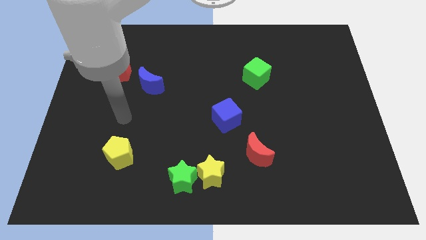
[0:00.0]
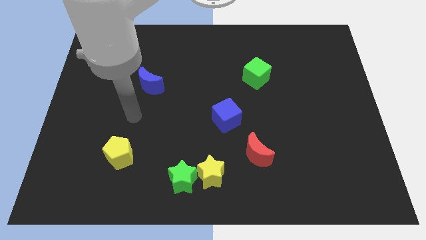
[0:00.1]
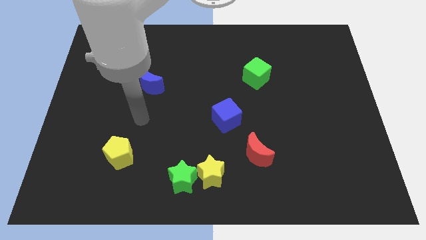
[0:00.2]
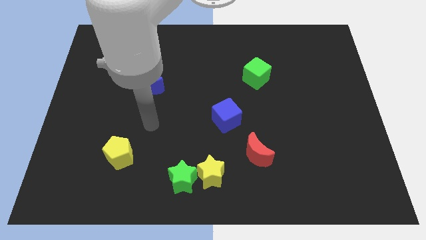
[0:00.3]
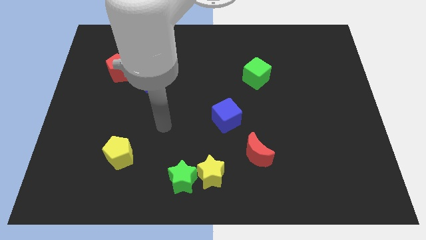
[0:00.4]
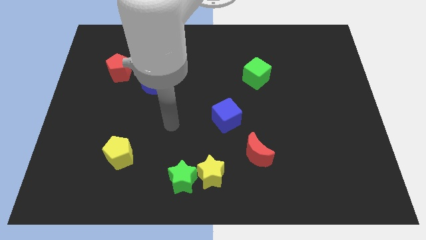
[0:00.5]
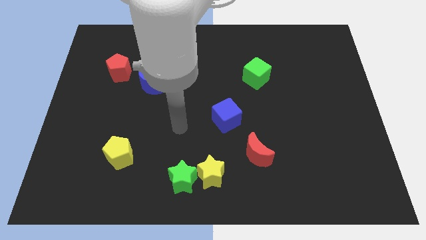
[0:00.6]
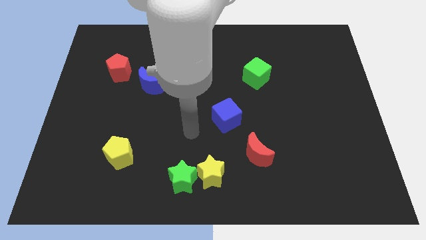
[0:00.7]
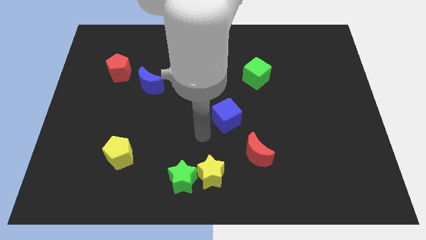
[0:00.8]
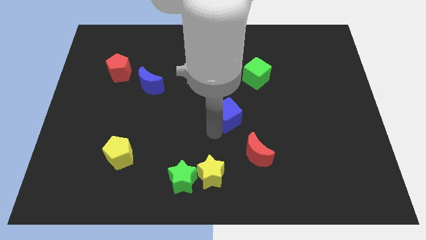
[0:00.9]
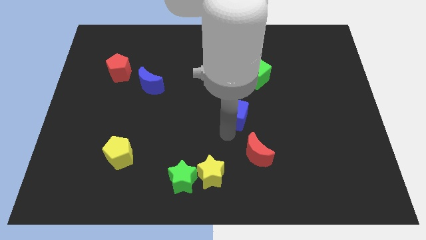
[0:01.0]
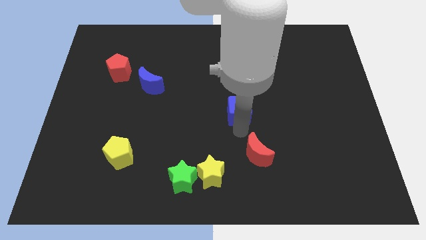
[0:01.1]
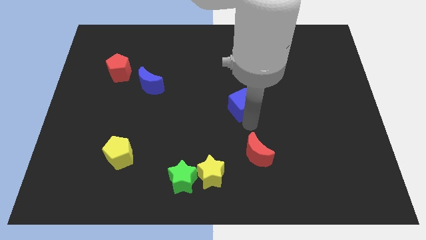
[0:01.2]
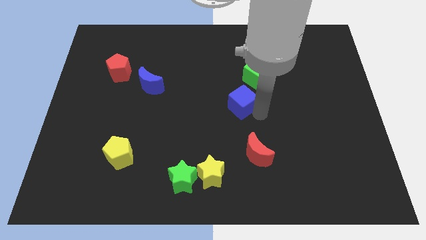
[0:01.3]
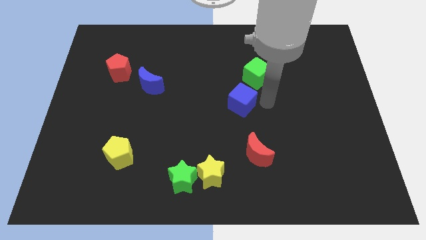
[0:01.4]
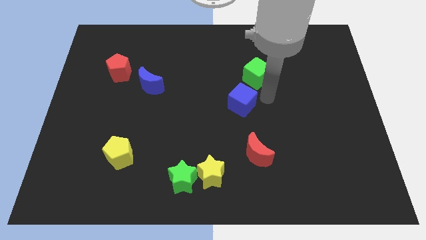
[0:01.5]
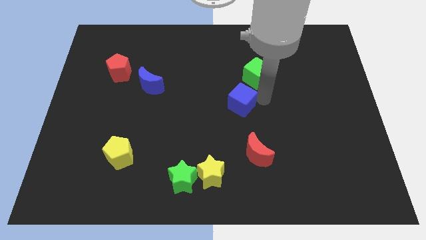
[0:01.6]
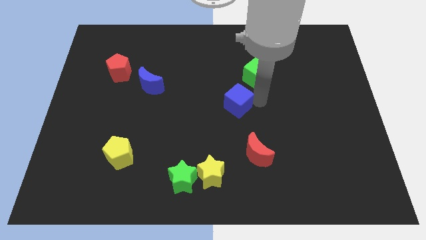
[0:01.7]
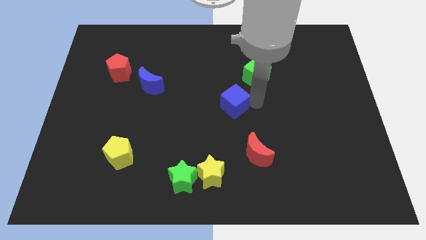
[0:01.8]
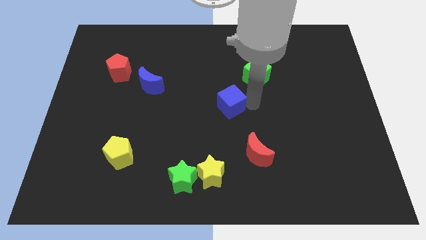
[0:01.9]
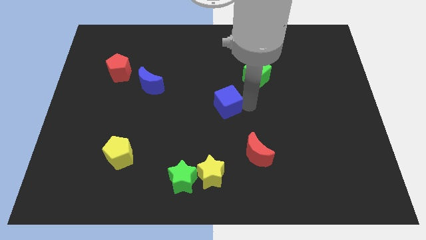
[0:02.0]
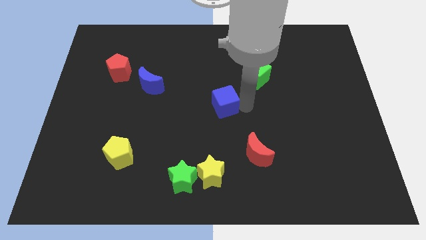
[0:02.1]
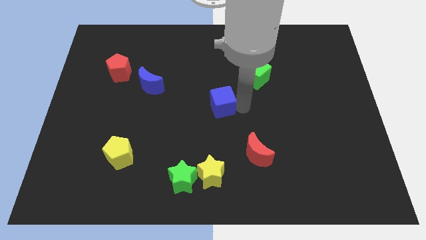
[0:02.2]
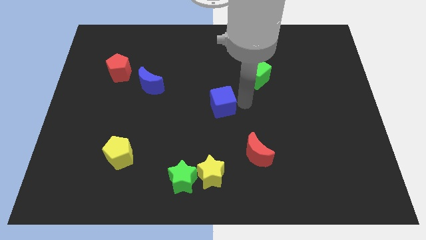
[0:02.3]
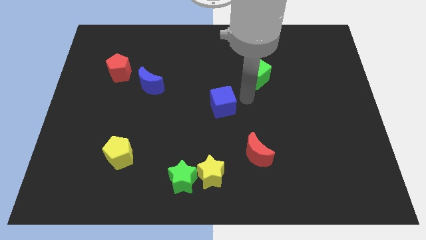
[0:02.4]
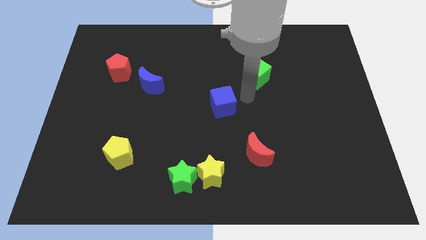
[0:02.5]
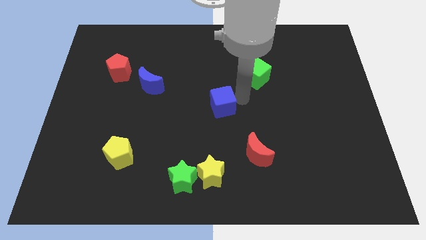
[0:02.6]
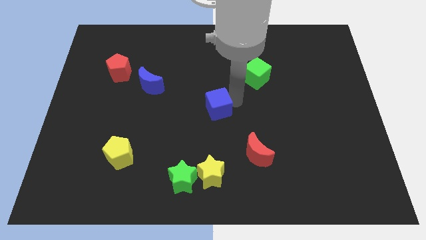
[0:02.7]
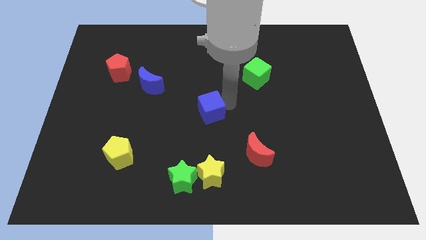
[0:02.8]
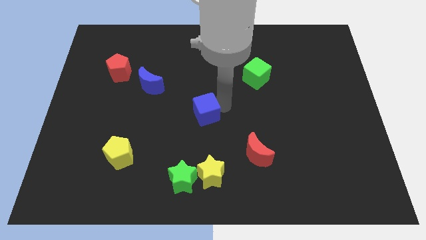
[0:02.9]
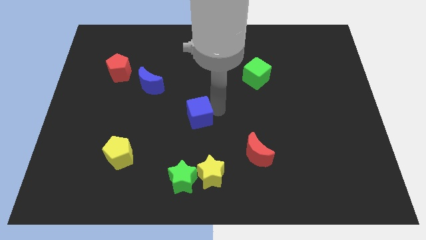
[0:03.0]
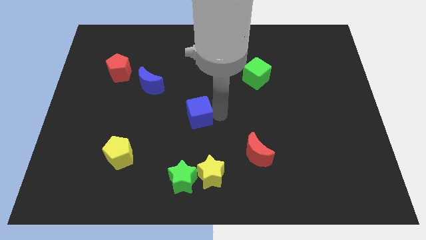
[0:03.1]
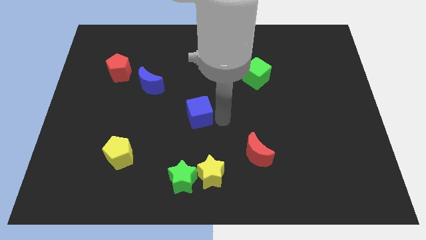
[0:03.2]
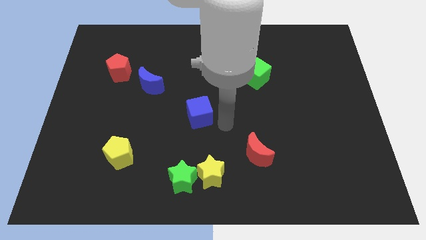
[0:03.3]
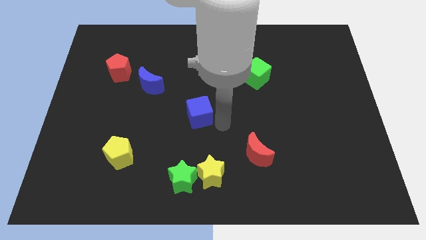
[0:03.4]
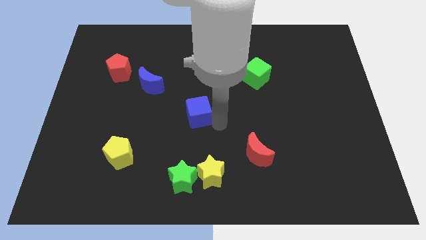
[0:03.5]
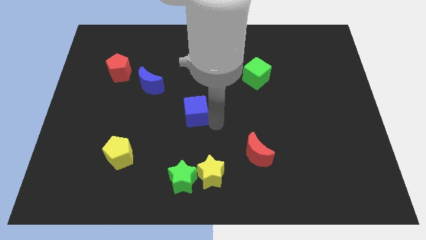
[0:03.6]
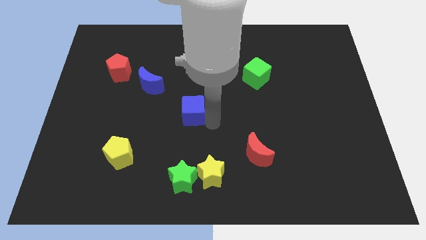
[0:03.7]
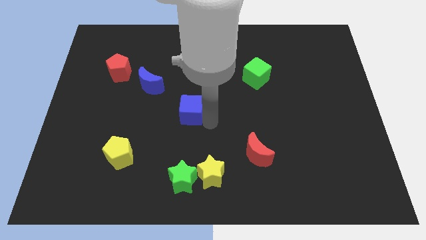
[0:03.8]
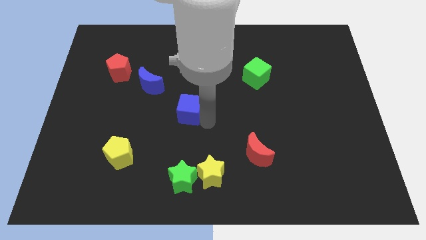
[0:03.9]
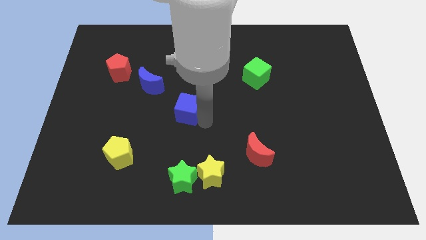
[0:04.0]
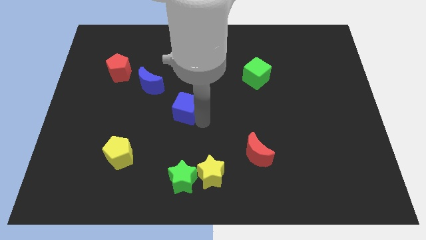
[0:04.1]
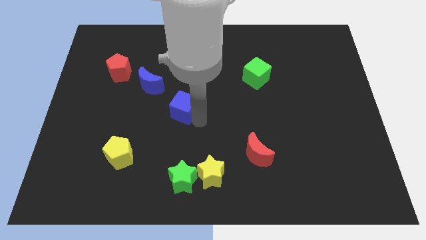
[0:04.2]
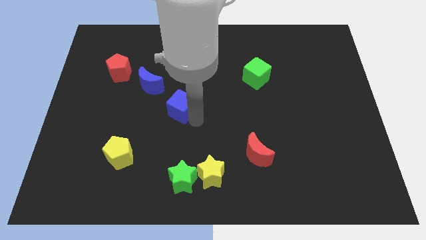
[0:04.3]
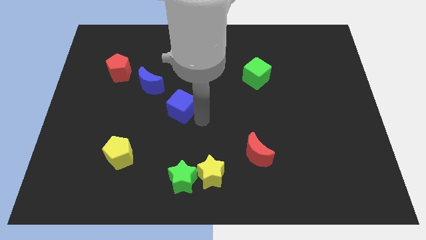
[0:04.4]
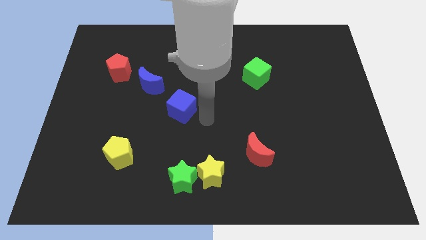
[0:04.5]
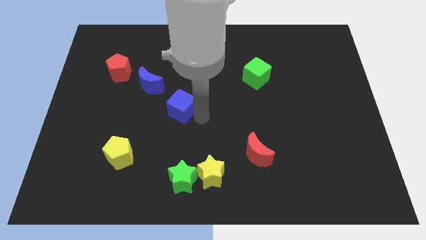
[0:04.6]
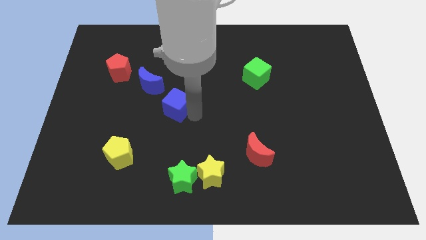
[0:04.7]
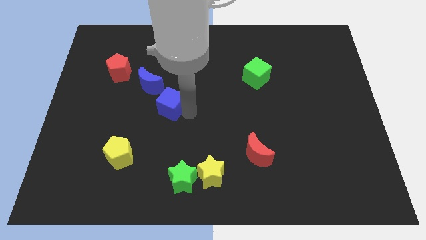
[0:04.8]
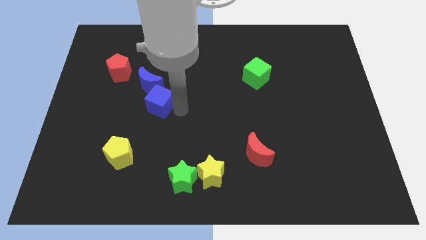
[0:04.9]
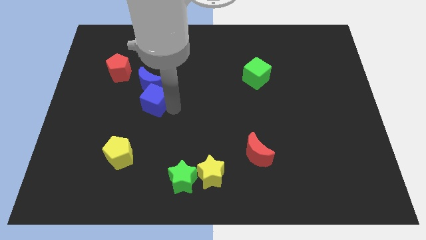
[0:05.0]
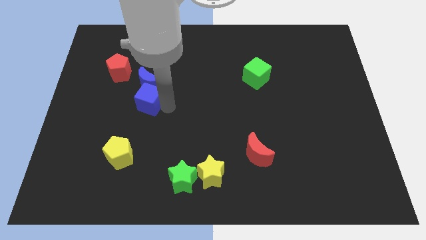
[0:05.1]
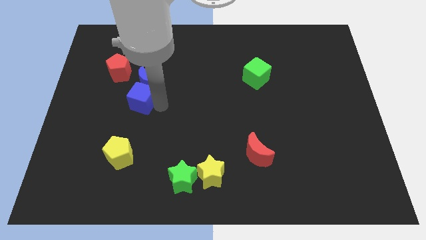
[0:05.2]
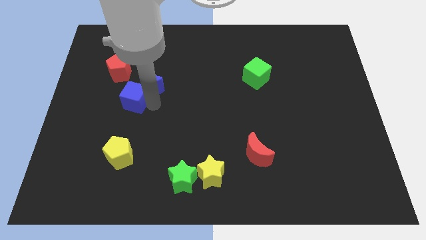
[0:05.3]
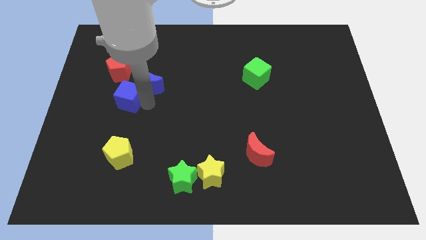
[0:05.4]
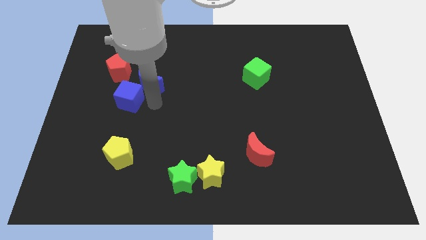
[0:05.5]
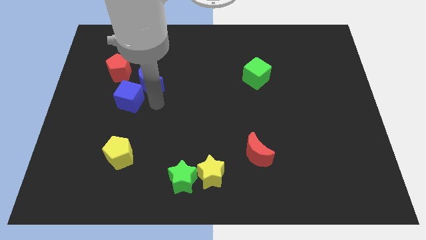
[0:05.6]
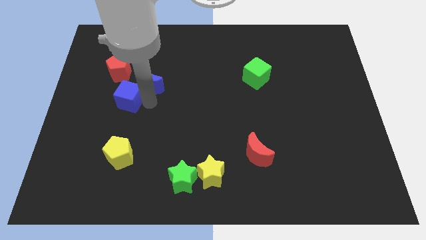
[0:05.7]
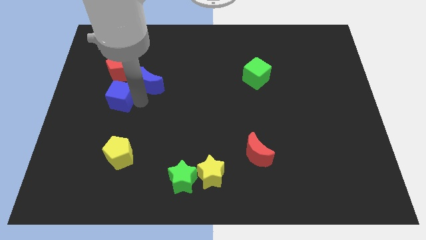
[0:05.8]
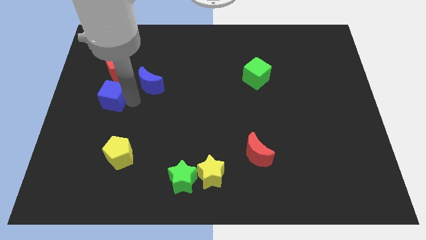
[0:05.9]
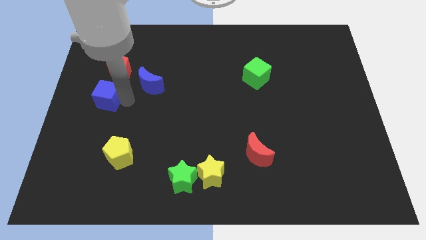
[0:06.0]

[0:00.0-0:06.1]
move the blue cube to the center left
